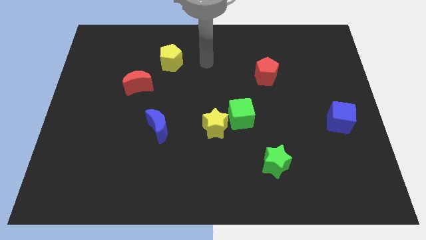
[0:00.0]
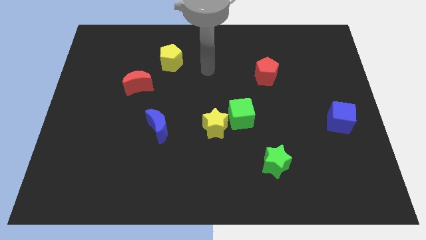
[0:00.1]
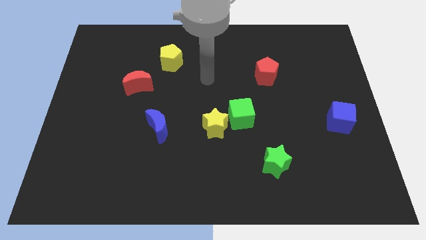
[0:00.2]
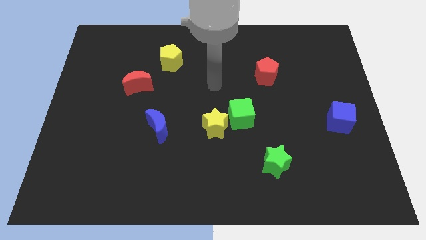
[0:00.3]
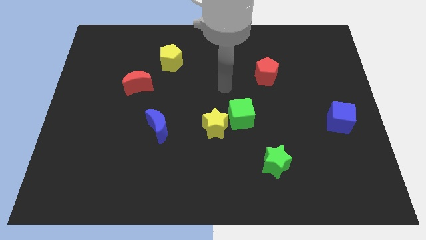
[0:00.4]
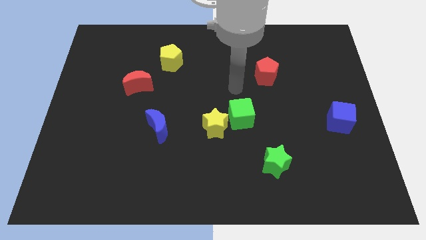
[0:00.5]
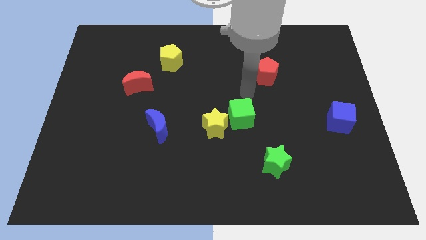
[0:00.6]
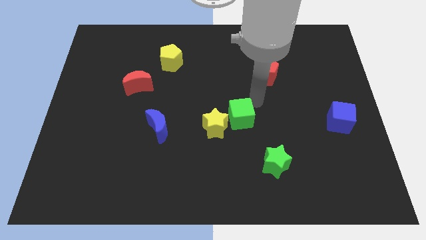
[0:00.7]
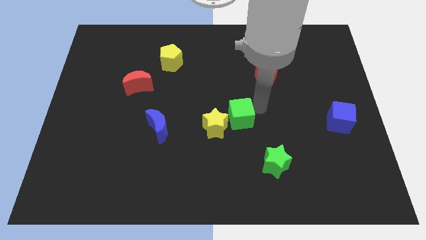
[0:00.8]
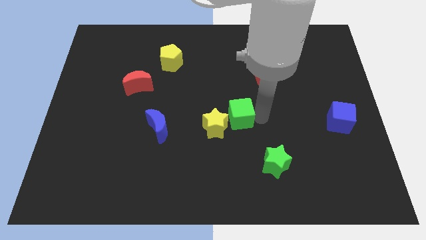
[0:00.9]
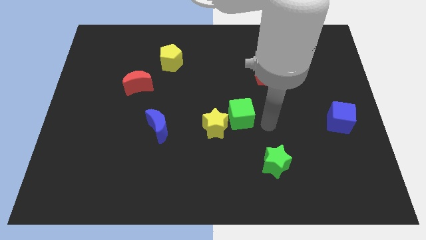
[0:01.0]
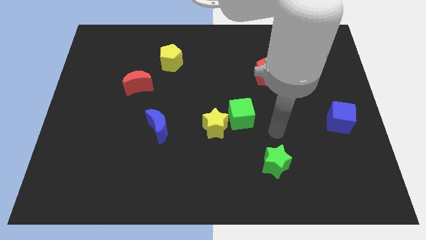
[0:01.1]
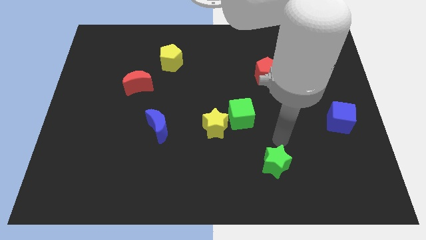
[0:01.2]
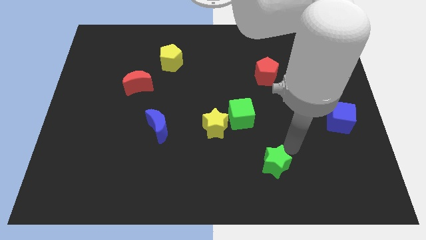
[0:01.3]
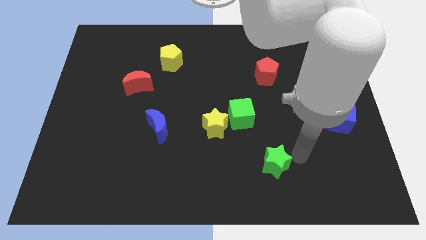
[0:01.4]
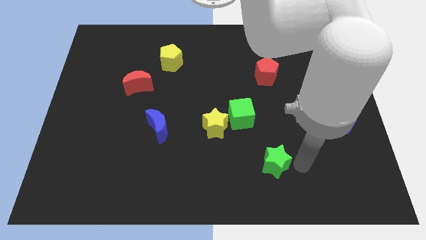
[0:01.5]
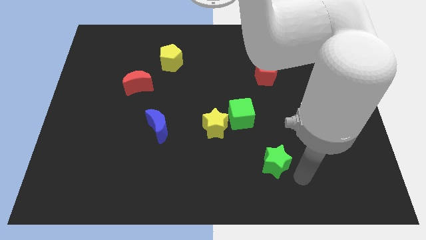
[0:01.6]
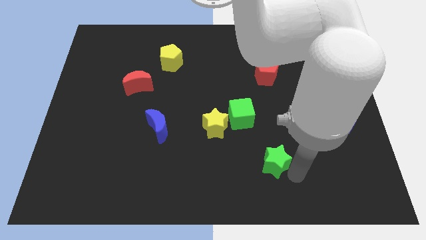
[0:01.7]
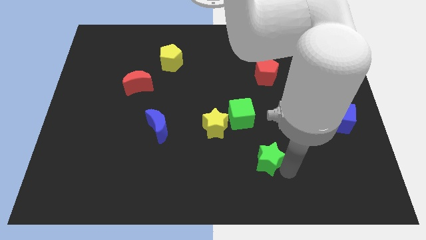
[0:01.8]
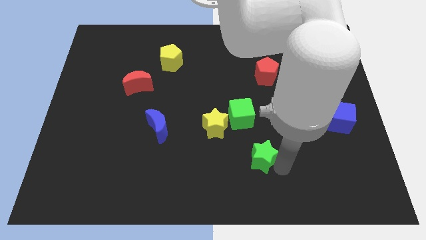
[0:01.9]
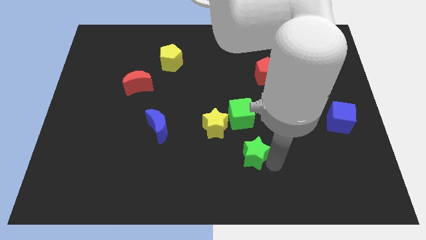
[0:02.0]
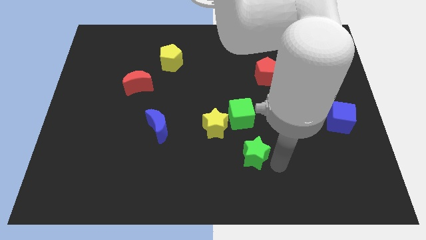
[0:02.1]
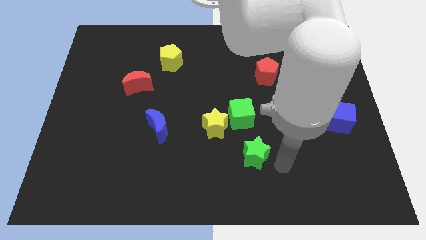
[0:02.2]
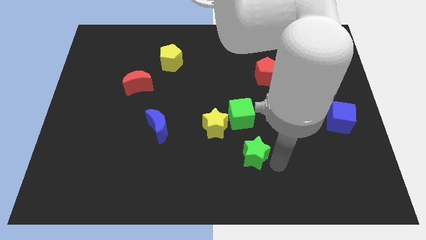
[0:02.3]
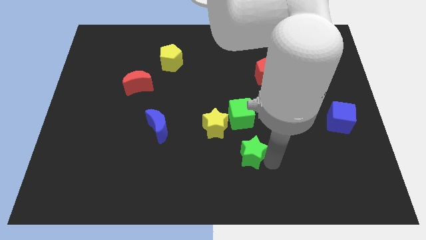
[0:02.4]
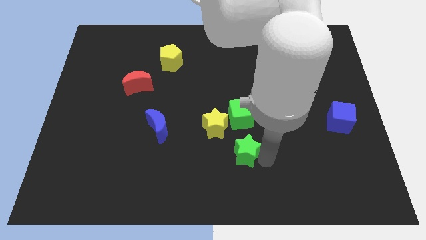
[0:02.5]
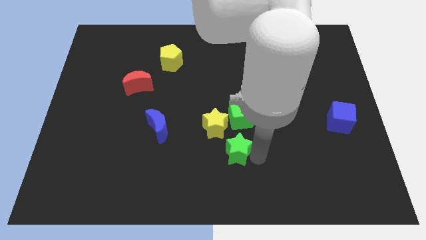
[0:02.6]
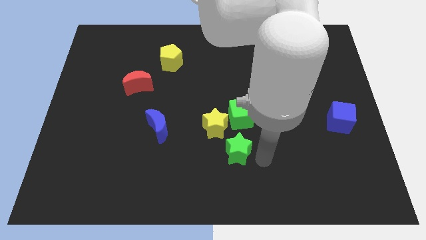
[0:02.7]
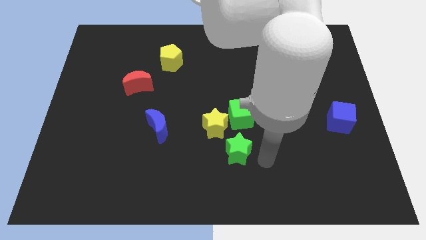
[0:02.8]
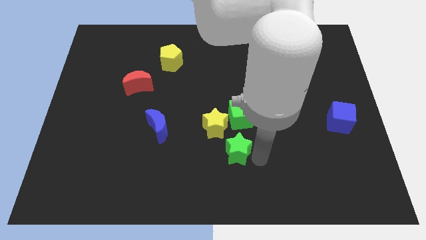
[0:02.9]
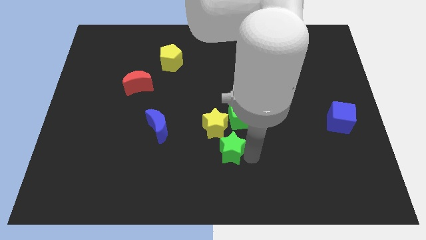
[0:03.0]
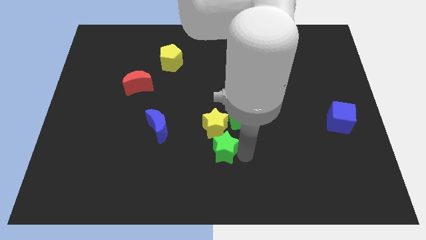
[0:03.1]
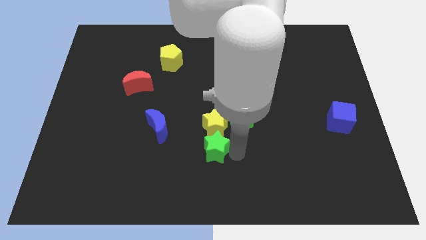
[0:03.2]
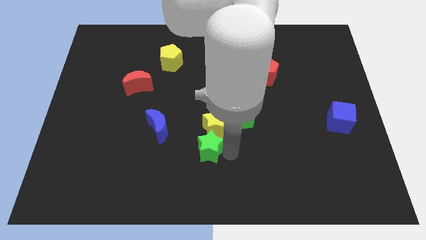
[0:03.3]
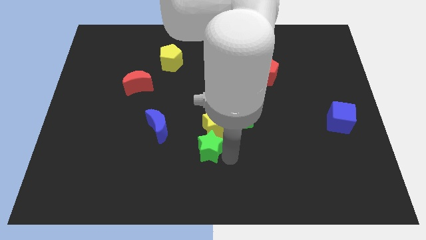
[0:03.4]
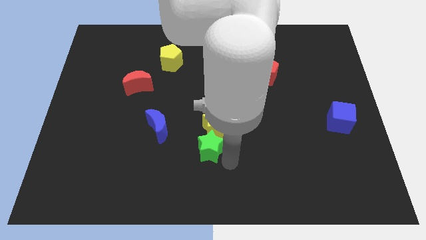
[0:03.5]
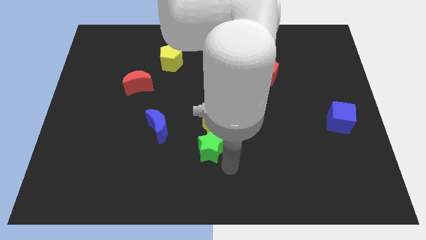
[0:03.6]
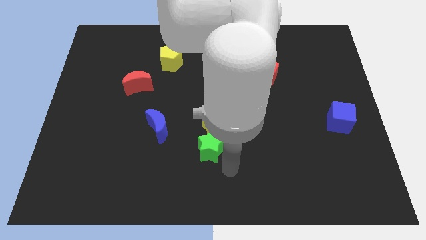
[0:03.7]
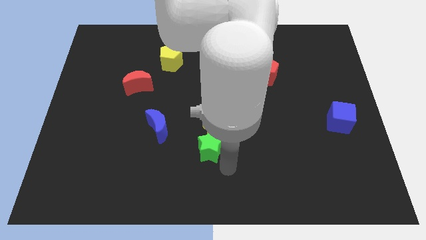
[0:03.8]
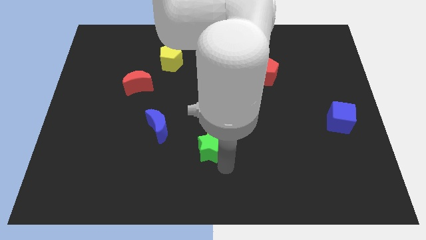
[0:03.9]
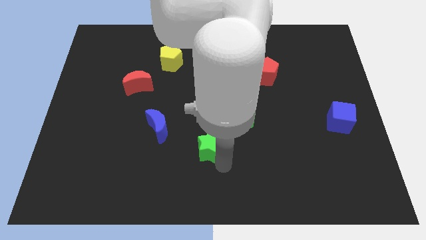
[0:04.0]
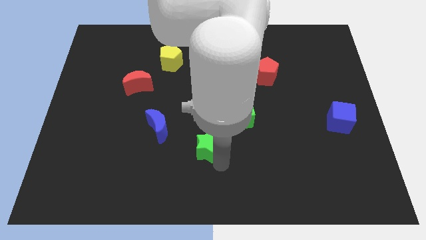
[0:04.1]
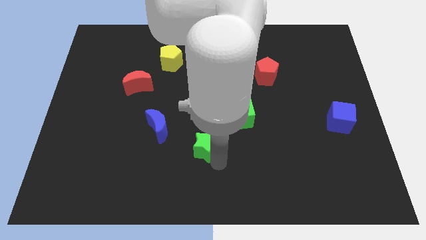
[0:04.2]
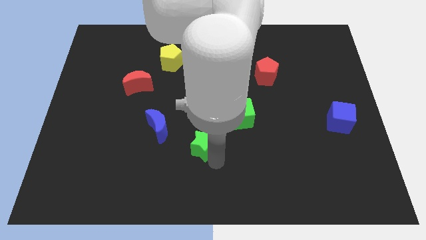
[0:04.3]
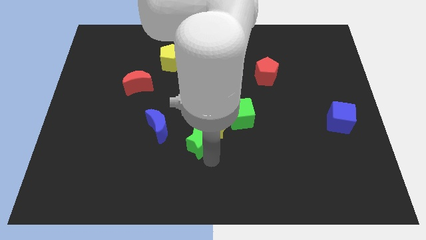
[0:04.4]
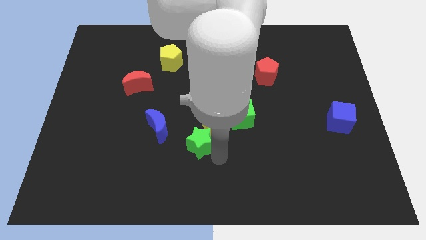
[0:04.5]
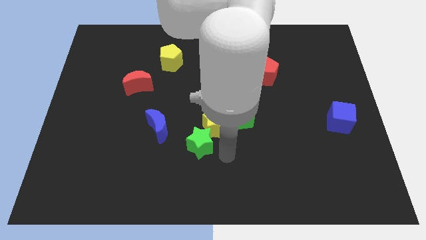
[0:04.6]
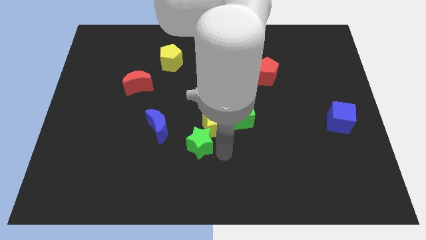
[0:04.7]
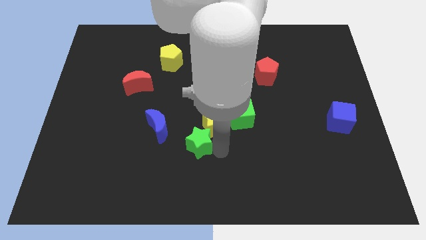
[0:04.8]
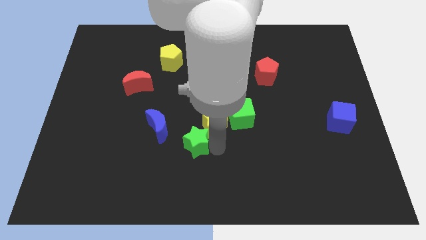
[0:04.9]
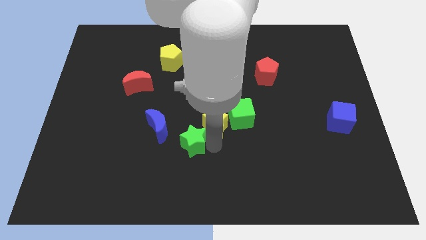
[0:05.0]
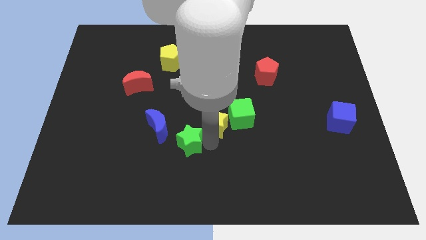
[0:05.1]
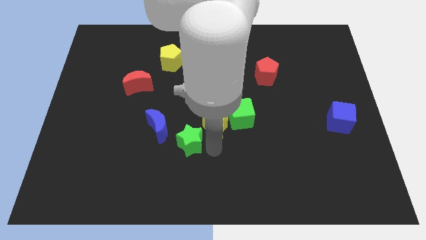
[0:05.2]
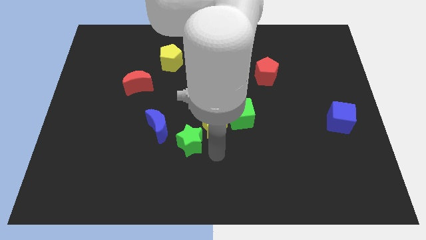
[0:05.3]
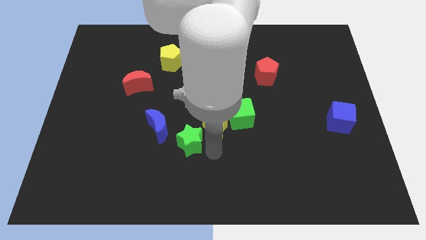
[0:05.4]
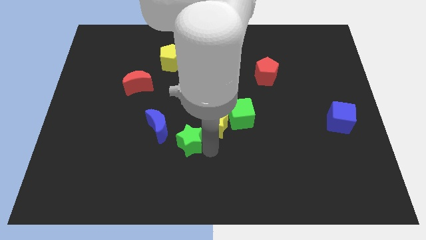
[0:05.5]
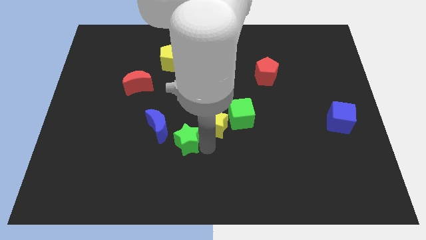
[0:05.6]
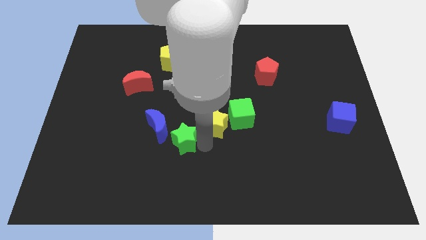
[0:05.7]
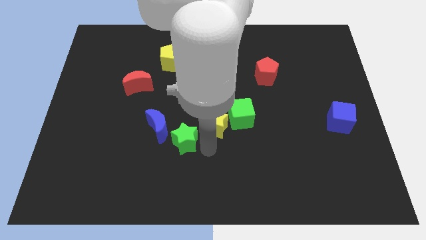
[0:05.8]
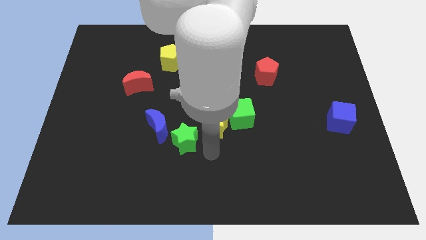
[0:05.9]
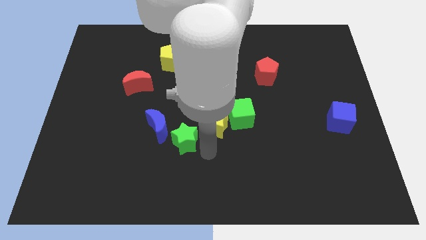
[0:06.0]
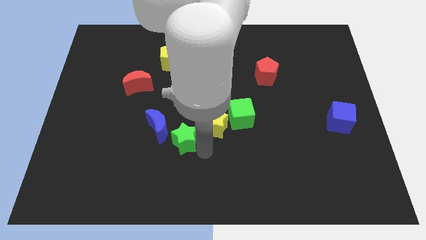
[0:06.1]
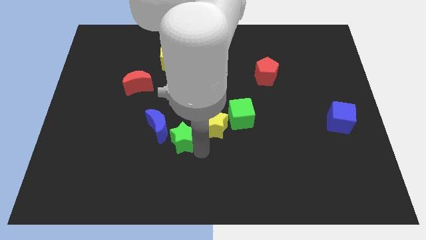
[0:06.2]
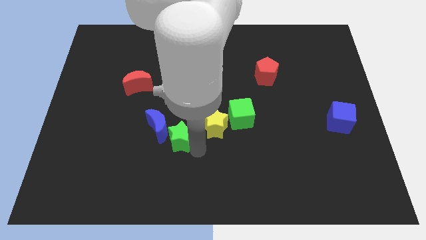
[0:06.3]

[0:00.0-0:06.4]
push the green star to the blue moon

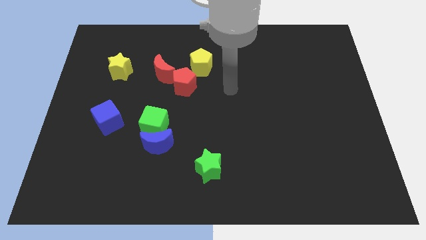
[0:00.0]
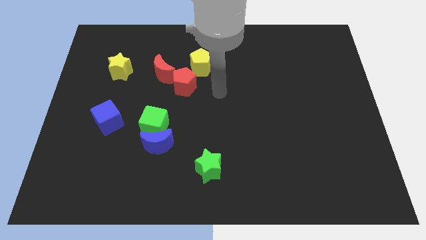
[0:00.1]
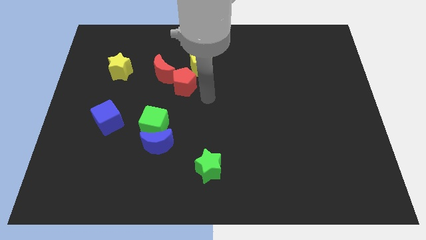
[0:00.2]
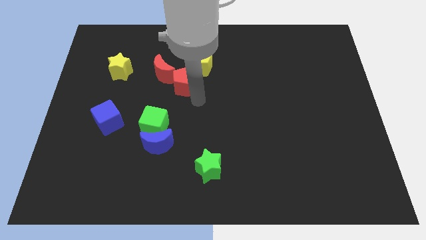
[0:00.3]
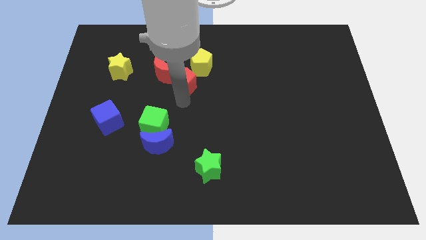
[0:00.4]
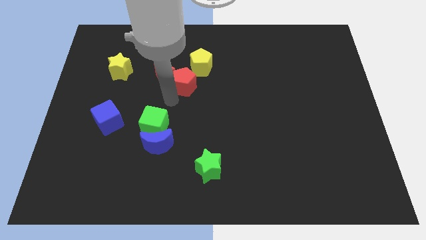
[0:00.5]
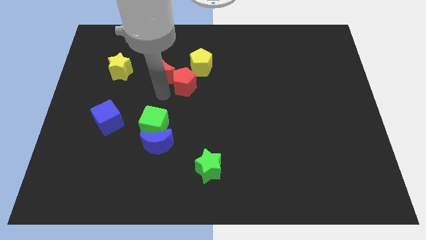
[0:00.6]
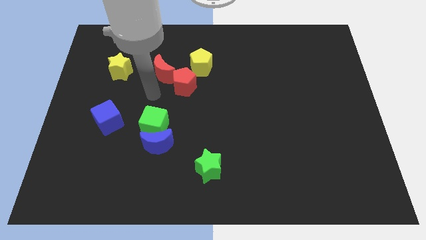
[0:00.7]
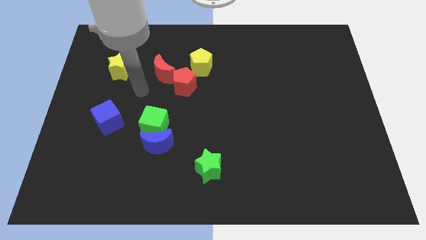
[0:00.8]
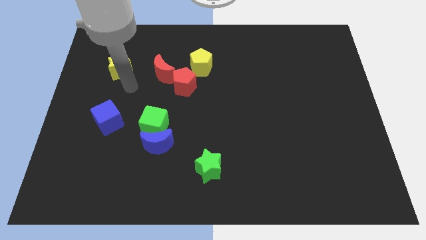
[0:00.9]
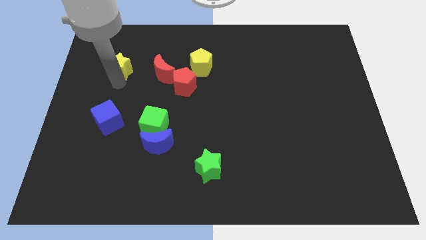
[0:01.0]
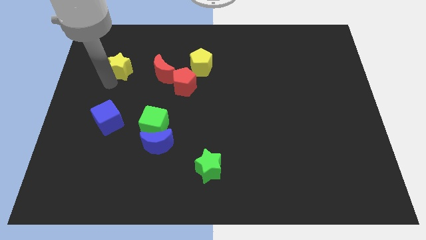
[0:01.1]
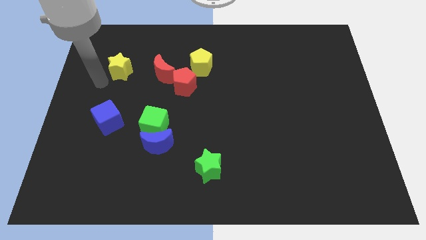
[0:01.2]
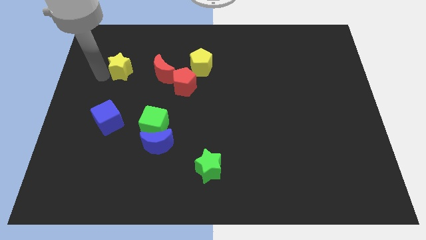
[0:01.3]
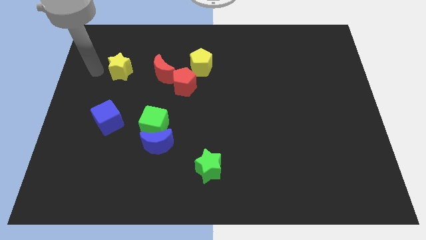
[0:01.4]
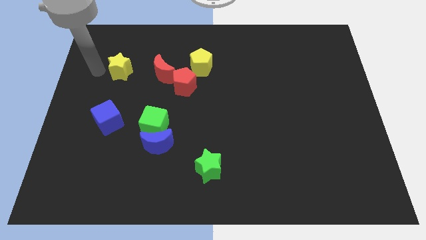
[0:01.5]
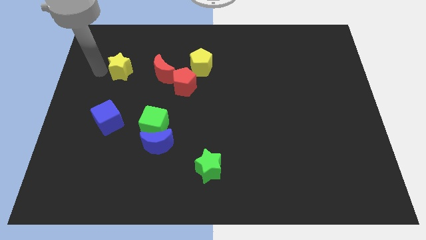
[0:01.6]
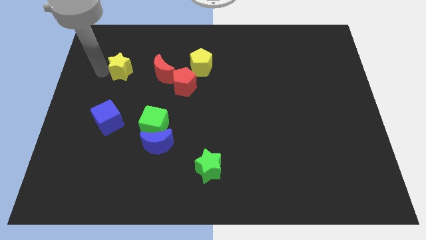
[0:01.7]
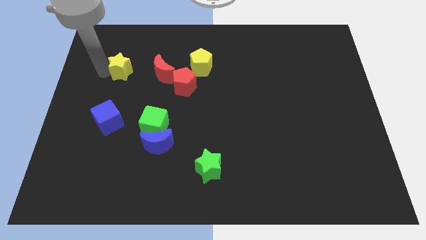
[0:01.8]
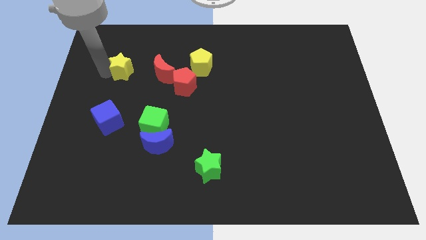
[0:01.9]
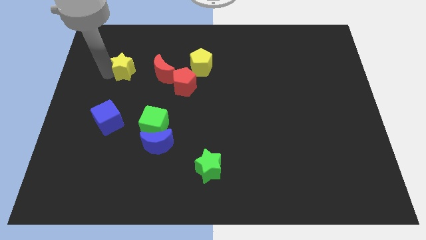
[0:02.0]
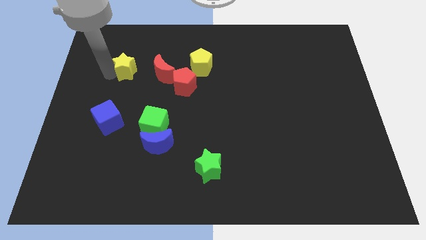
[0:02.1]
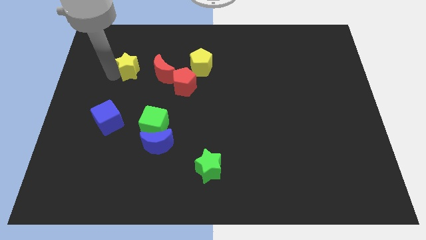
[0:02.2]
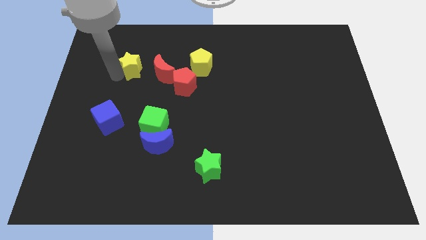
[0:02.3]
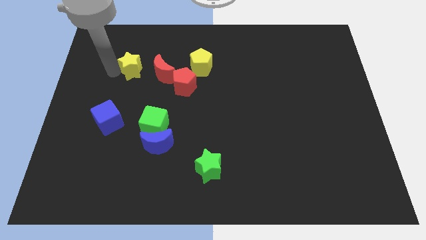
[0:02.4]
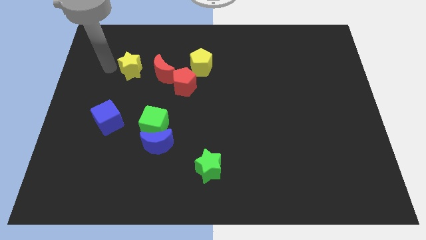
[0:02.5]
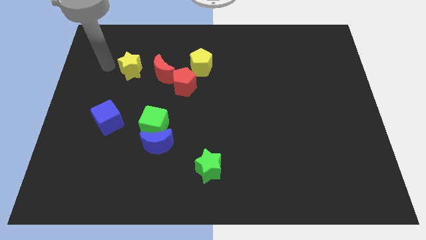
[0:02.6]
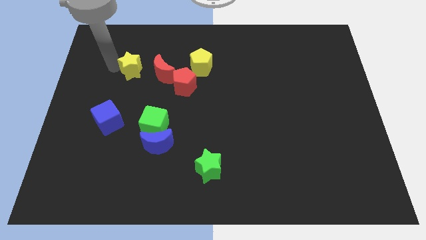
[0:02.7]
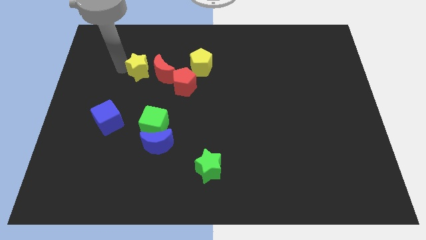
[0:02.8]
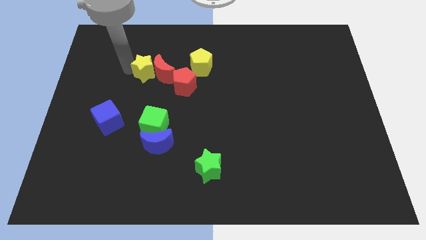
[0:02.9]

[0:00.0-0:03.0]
push the yellow star close to the red moon
